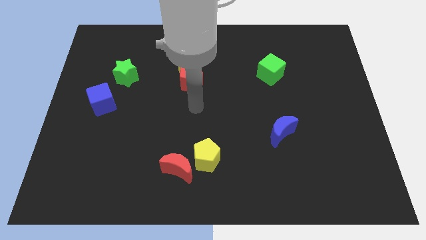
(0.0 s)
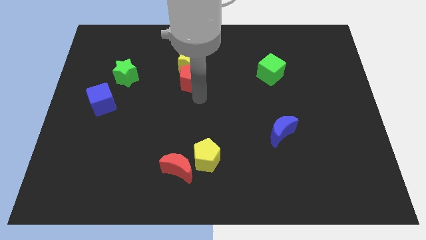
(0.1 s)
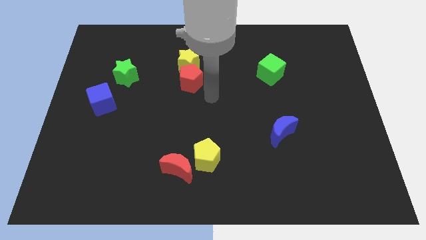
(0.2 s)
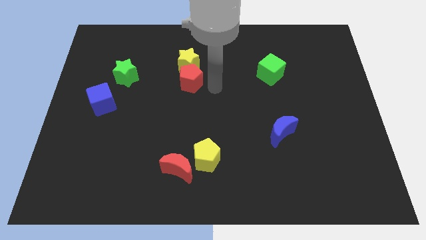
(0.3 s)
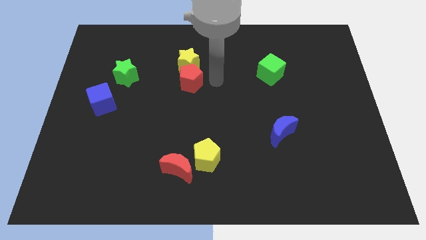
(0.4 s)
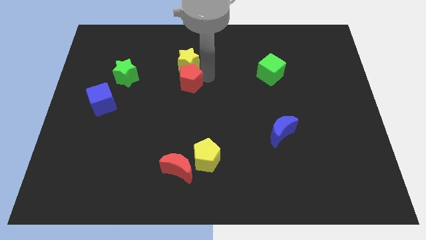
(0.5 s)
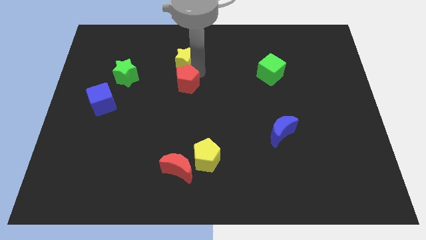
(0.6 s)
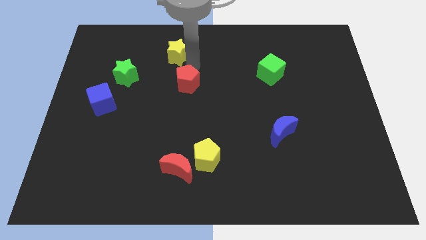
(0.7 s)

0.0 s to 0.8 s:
move the red pentagon away from the yellow star

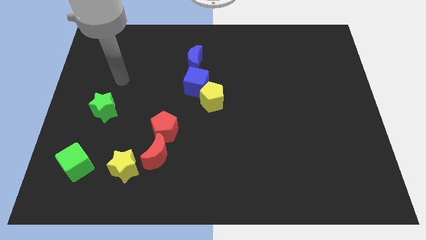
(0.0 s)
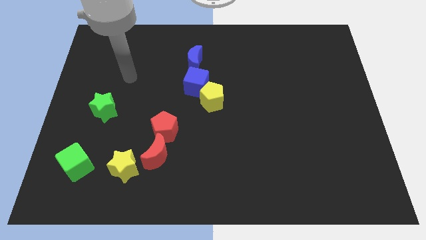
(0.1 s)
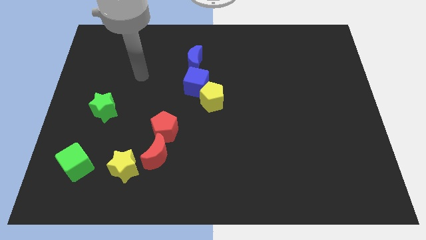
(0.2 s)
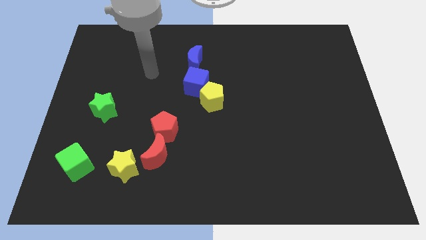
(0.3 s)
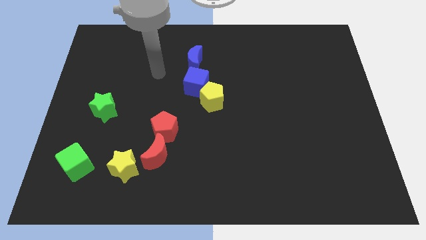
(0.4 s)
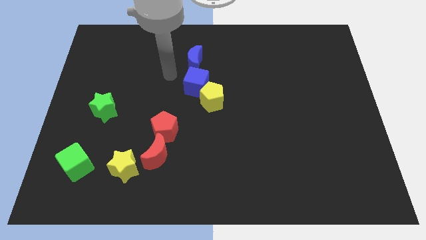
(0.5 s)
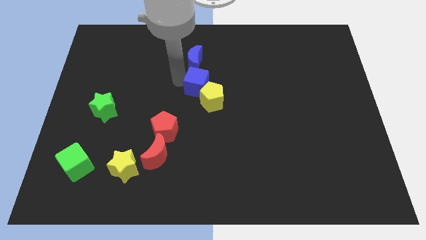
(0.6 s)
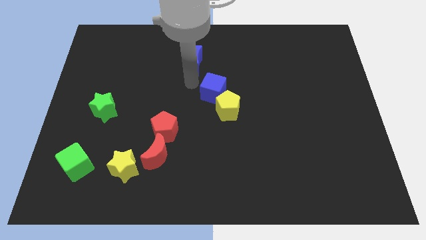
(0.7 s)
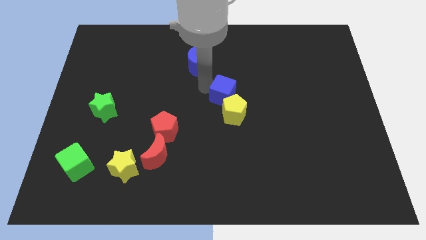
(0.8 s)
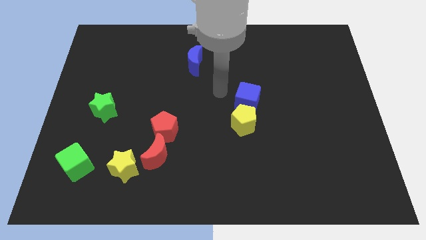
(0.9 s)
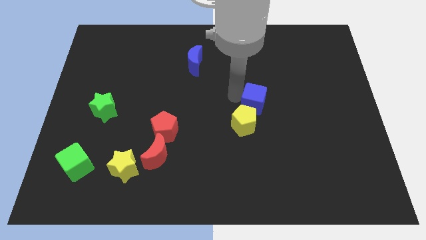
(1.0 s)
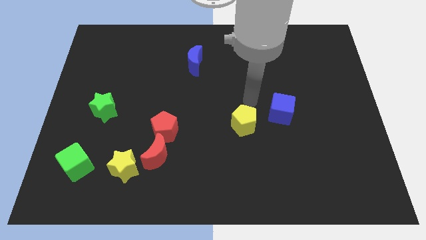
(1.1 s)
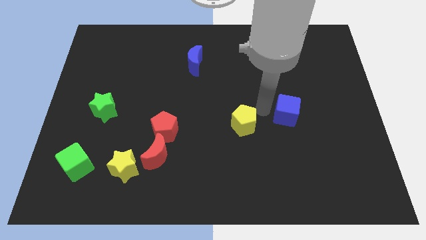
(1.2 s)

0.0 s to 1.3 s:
pull the yellow pentagon apart from the blue cube

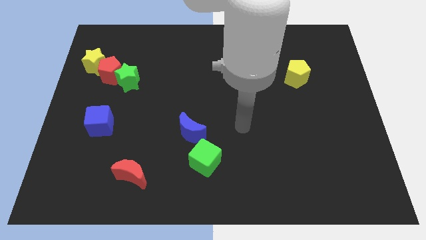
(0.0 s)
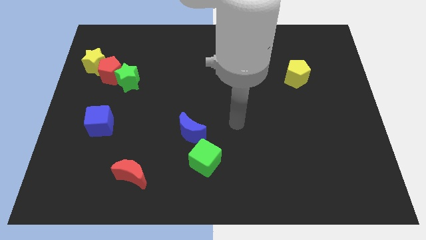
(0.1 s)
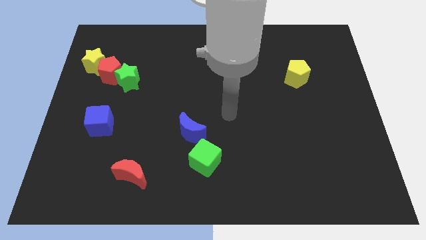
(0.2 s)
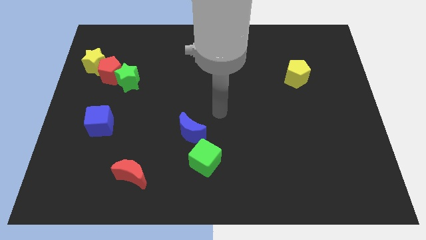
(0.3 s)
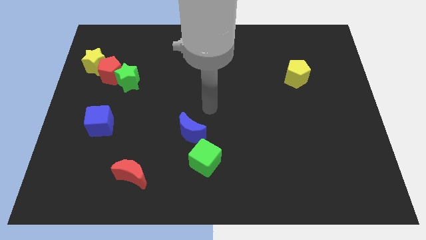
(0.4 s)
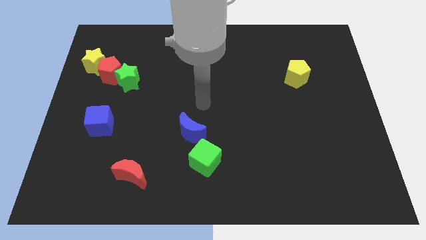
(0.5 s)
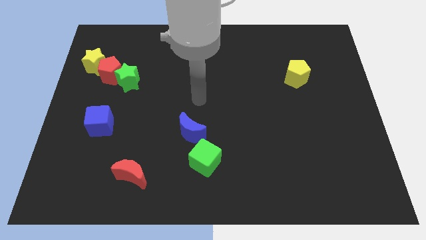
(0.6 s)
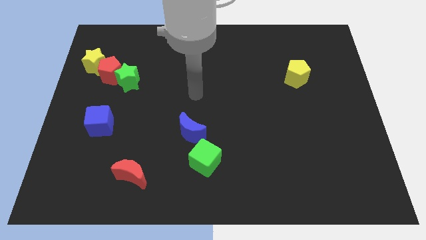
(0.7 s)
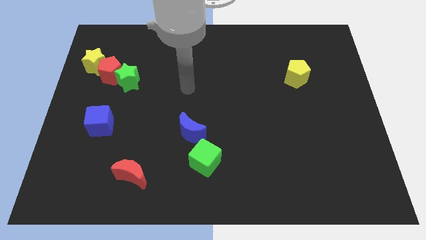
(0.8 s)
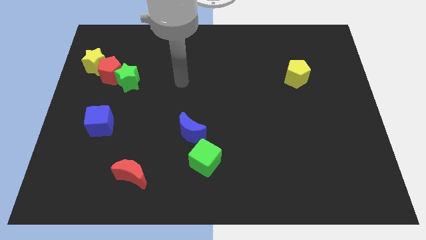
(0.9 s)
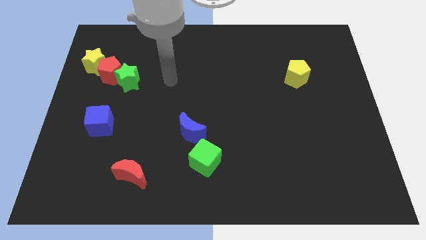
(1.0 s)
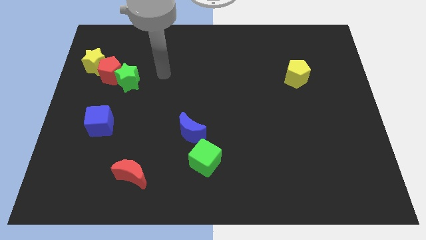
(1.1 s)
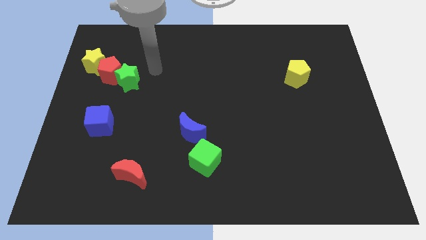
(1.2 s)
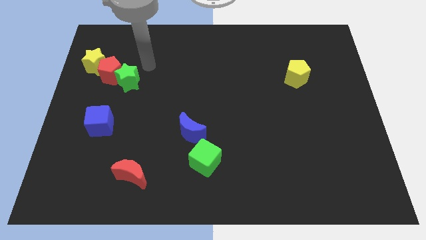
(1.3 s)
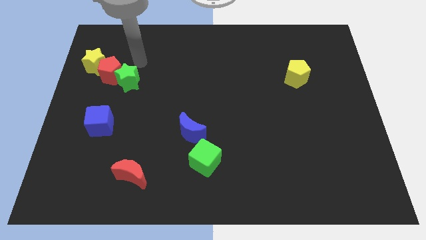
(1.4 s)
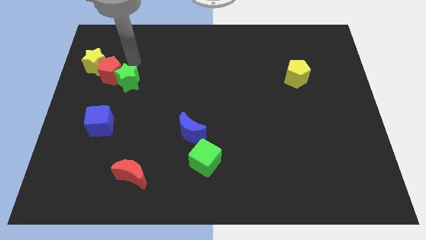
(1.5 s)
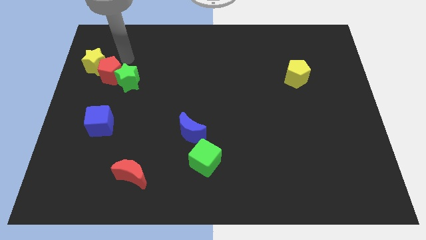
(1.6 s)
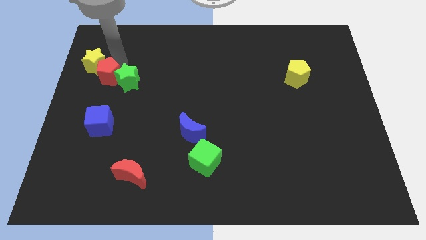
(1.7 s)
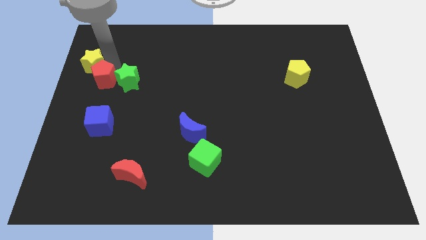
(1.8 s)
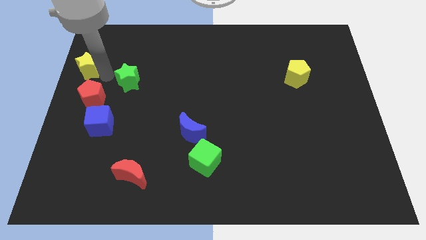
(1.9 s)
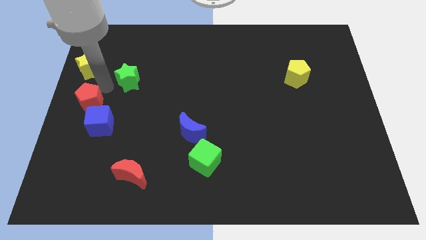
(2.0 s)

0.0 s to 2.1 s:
pull the green star apart from the red pentagon

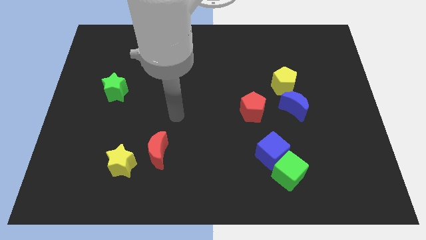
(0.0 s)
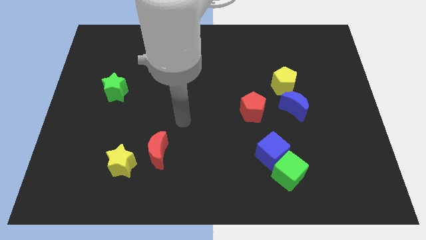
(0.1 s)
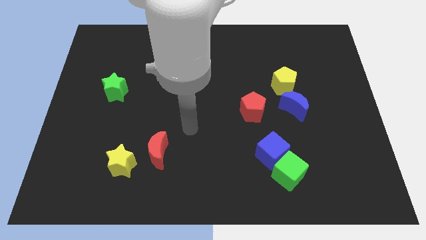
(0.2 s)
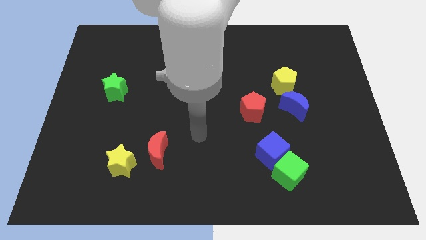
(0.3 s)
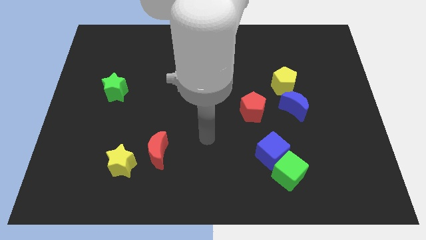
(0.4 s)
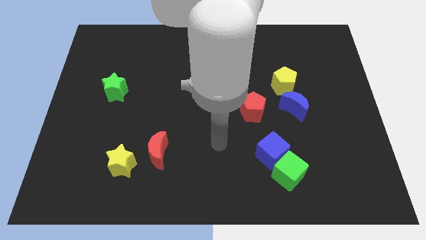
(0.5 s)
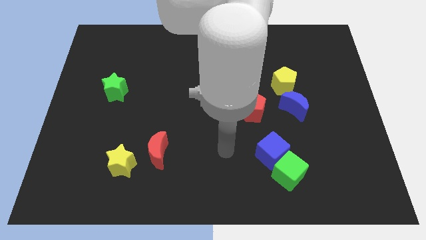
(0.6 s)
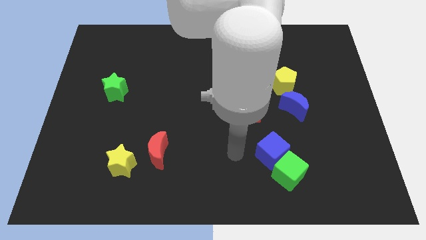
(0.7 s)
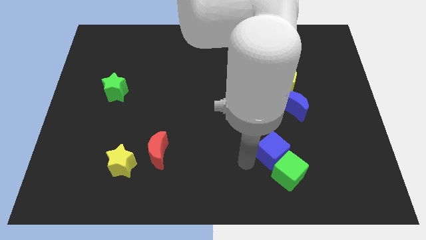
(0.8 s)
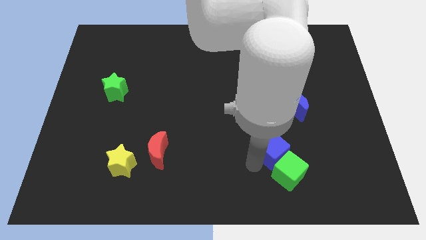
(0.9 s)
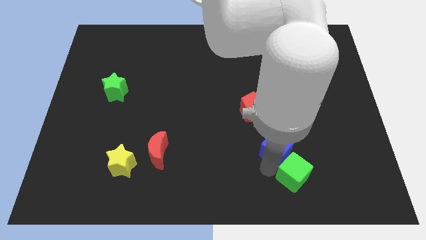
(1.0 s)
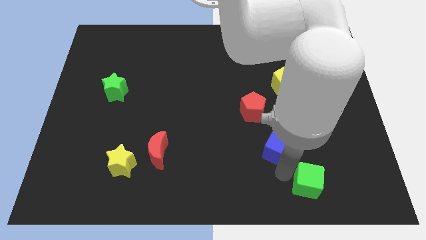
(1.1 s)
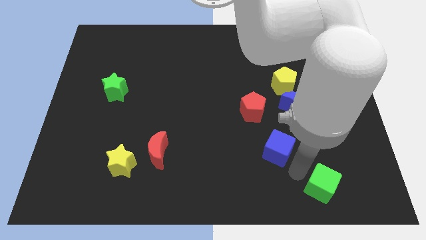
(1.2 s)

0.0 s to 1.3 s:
pull the blue cube apart from the green cube

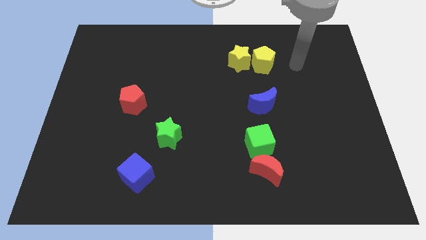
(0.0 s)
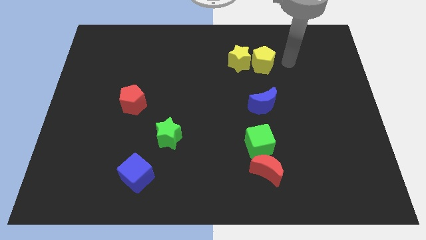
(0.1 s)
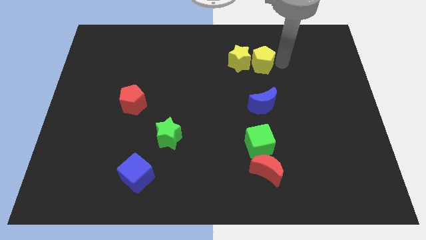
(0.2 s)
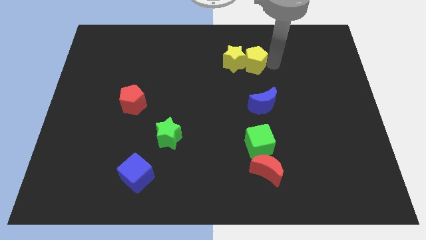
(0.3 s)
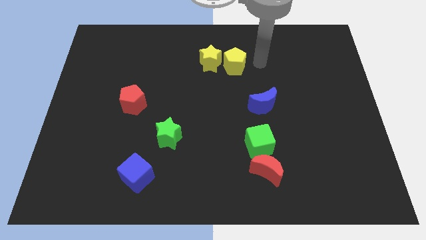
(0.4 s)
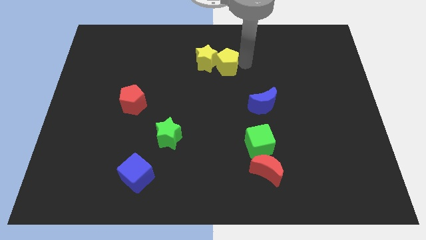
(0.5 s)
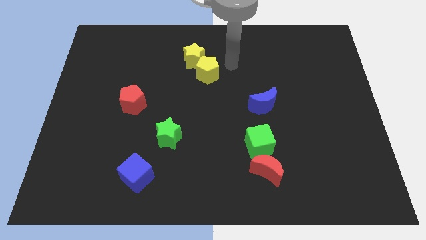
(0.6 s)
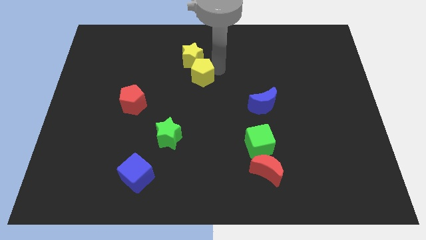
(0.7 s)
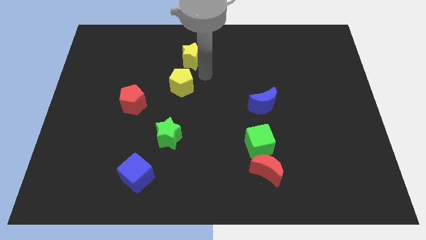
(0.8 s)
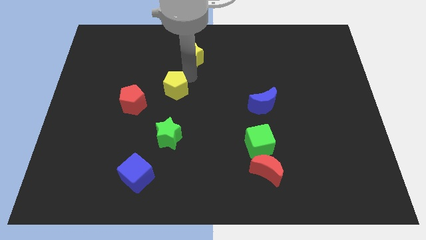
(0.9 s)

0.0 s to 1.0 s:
pull the yellow star apart from the yellow pentagon

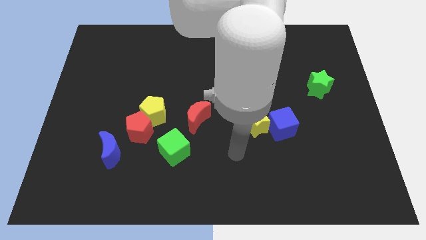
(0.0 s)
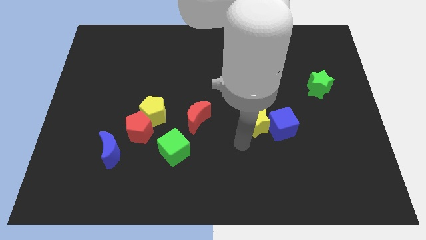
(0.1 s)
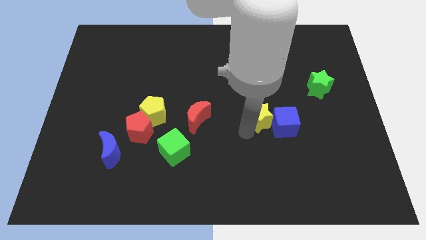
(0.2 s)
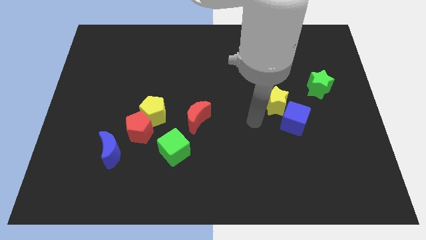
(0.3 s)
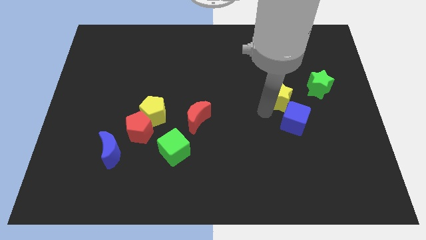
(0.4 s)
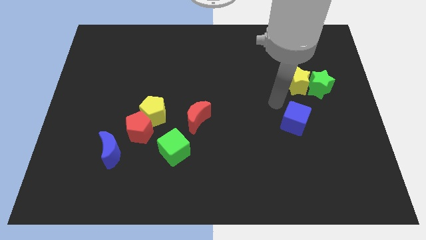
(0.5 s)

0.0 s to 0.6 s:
pull the blue cube apart from the yellow star

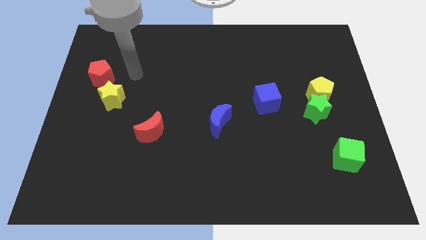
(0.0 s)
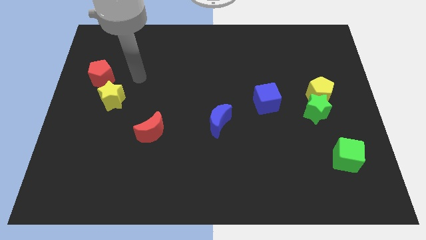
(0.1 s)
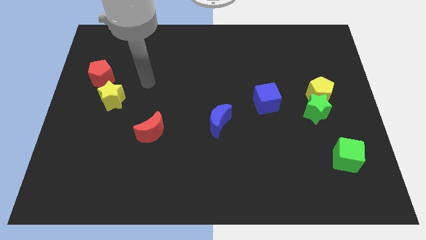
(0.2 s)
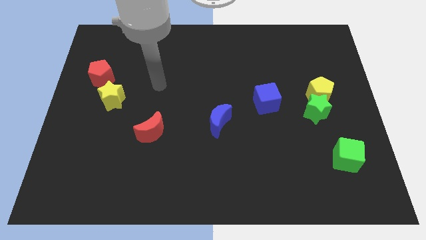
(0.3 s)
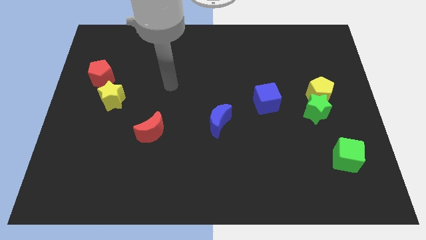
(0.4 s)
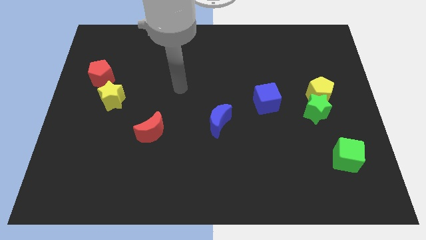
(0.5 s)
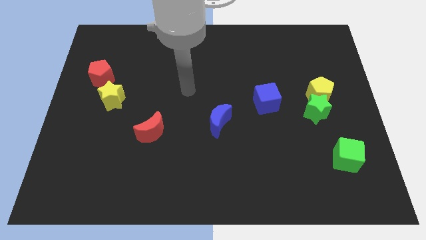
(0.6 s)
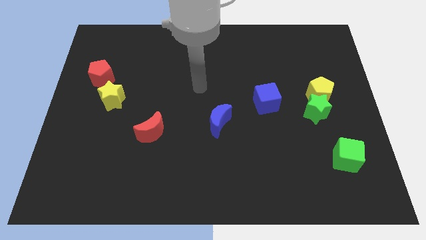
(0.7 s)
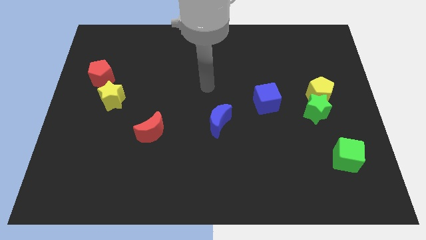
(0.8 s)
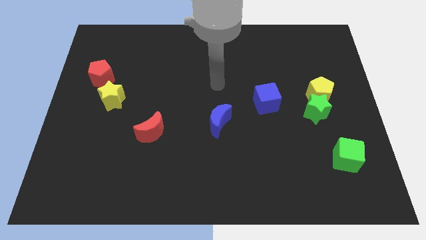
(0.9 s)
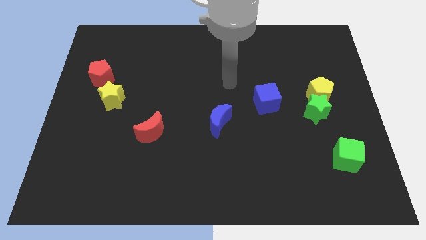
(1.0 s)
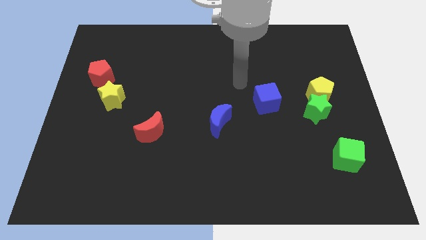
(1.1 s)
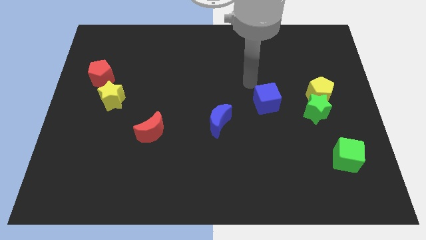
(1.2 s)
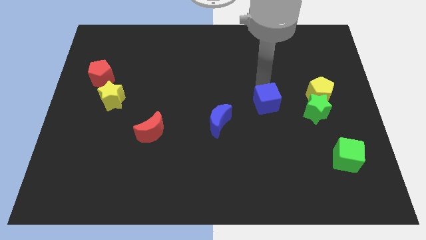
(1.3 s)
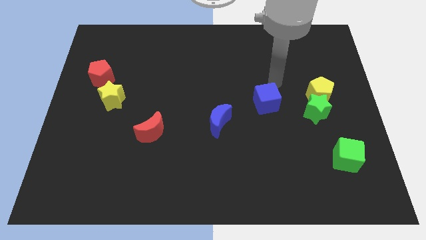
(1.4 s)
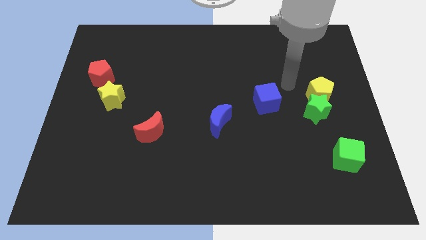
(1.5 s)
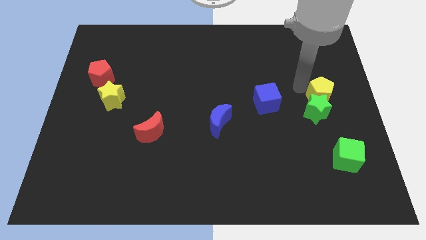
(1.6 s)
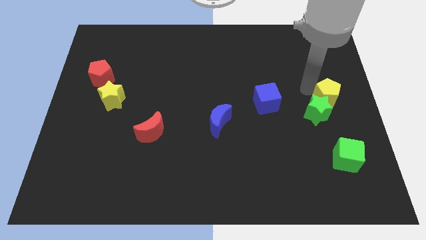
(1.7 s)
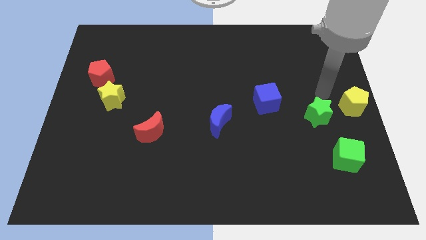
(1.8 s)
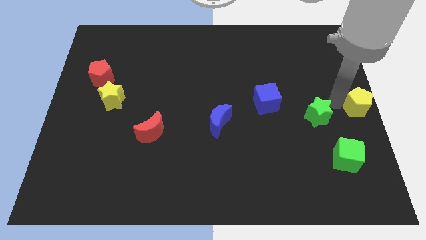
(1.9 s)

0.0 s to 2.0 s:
move the green star away from the yellow pentagon

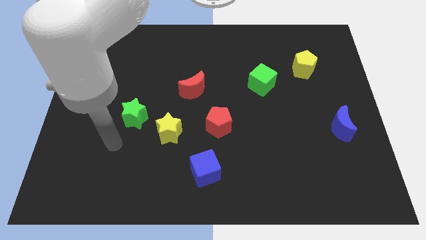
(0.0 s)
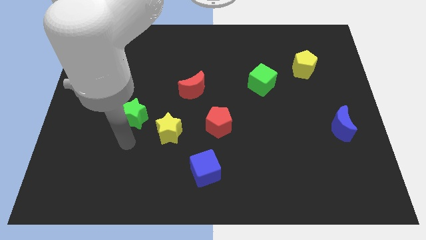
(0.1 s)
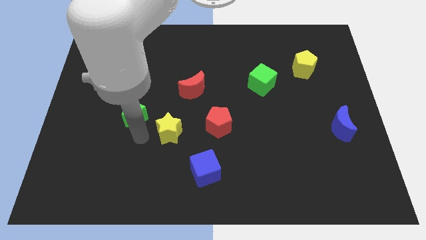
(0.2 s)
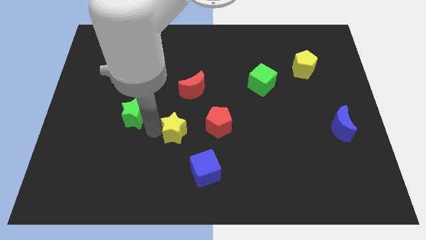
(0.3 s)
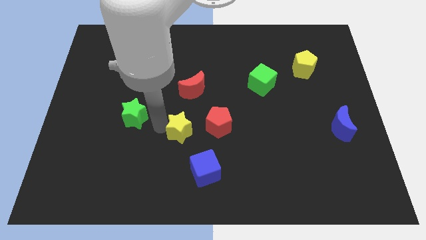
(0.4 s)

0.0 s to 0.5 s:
separate the green star from the yellow star
